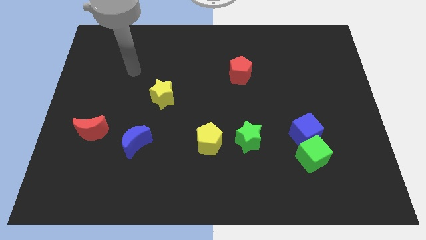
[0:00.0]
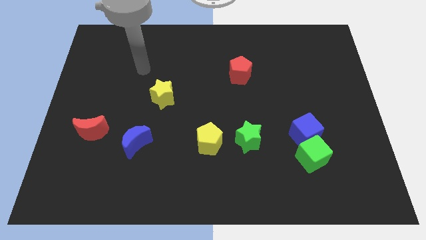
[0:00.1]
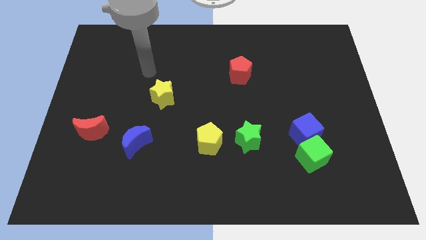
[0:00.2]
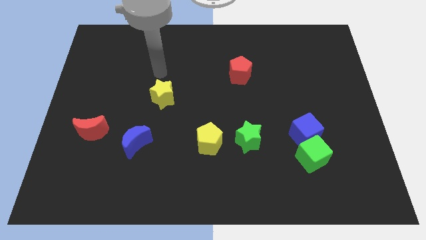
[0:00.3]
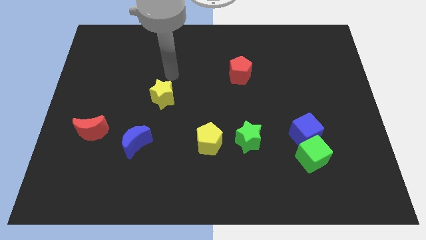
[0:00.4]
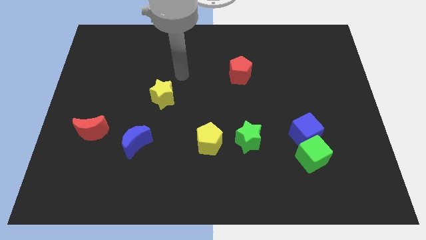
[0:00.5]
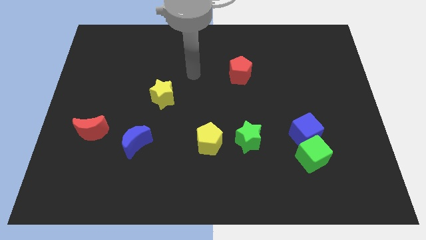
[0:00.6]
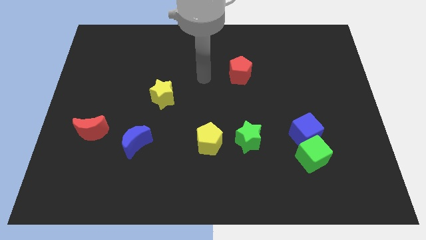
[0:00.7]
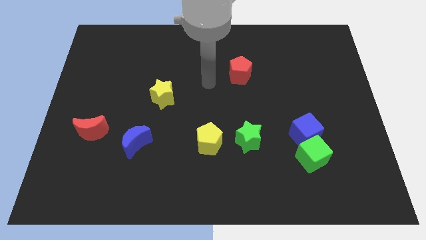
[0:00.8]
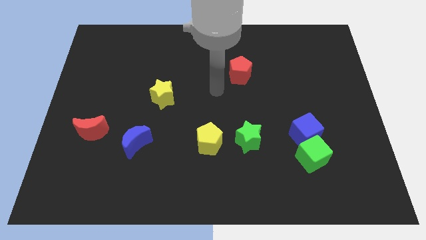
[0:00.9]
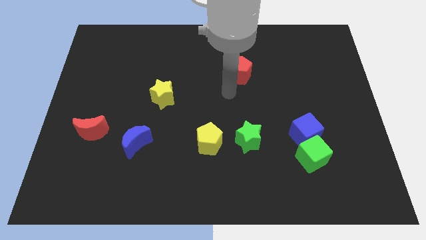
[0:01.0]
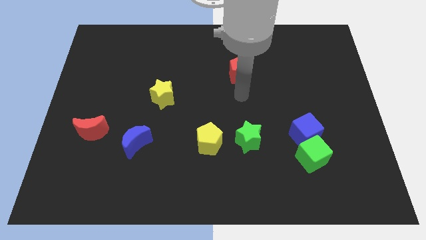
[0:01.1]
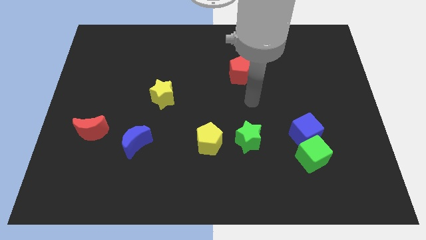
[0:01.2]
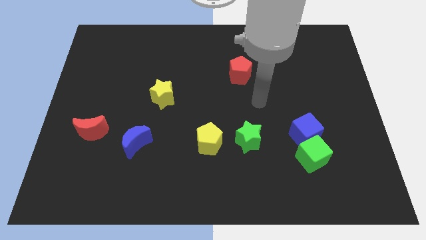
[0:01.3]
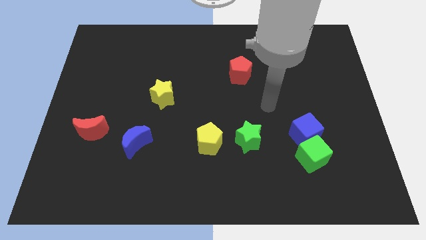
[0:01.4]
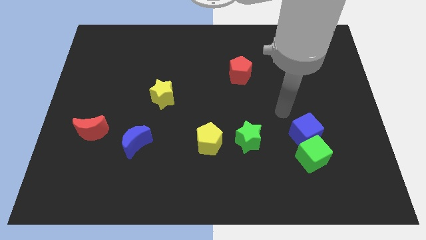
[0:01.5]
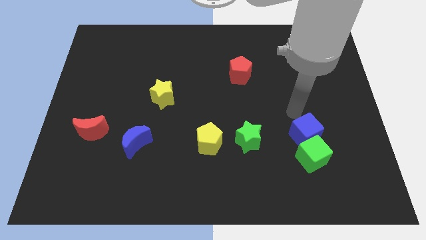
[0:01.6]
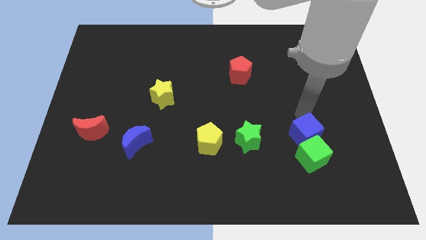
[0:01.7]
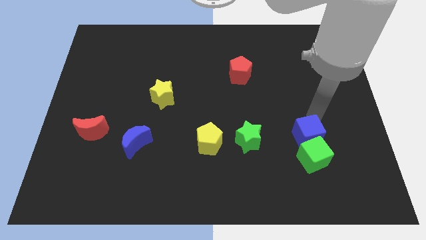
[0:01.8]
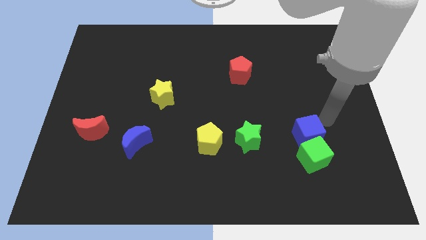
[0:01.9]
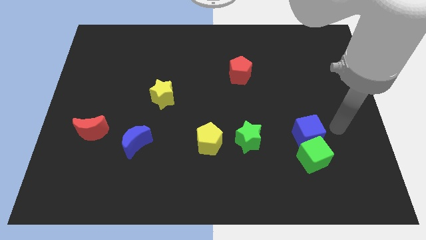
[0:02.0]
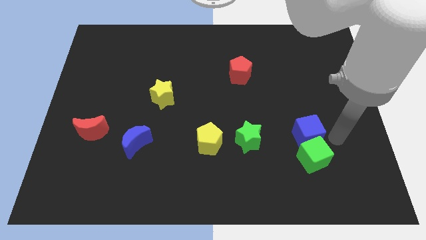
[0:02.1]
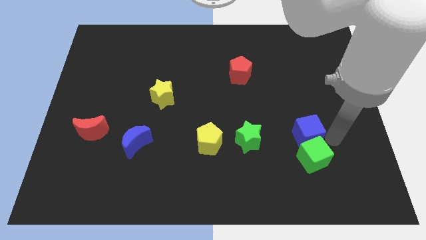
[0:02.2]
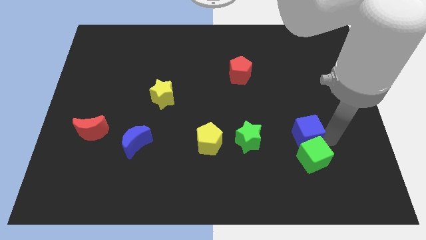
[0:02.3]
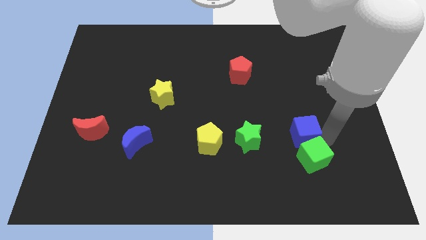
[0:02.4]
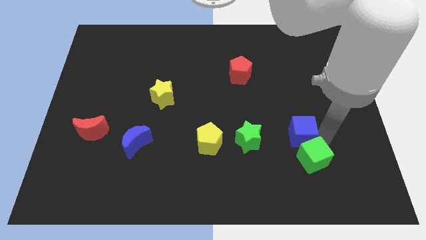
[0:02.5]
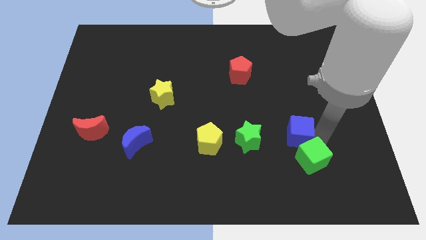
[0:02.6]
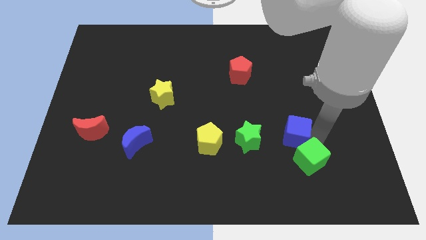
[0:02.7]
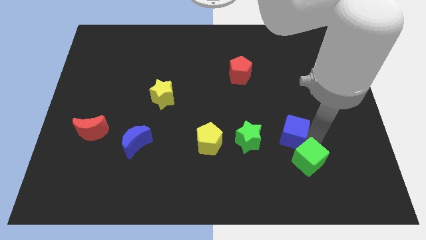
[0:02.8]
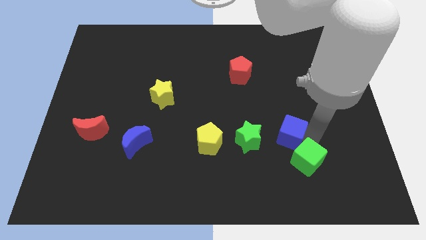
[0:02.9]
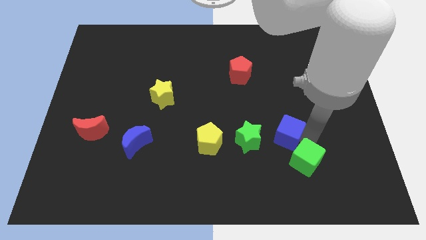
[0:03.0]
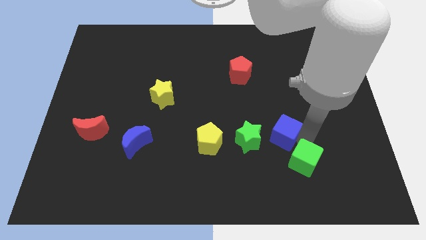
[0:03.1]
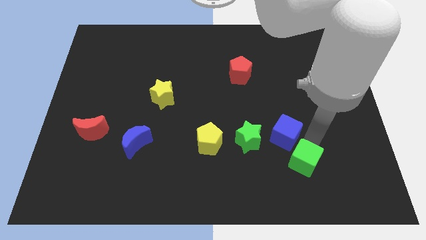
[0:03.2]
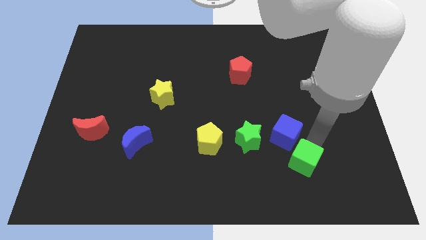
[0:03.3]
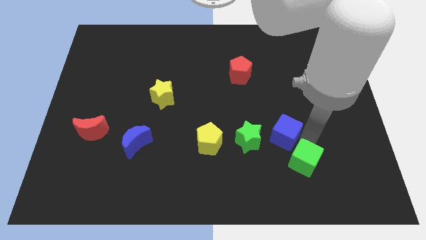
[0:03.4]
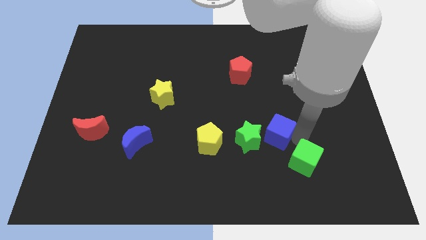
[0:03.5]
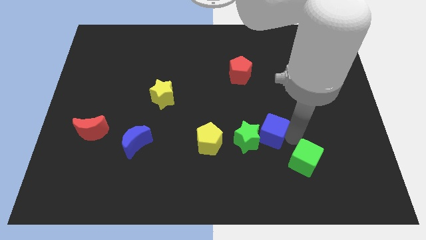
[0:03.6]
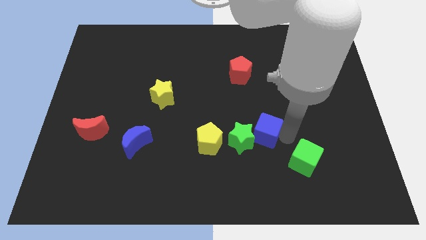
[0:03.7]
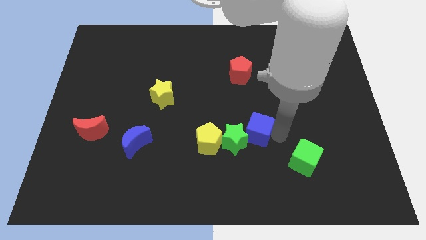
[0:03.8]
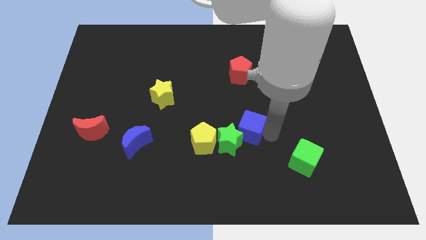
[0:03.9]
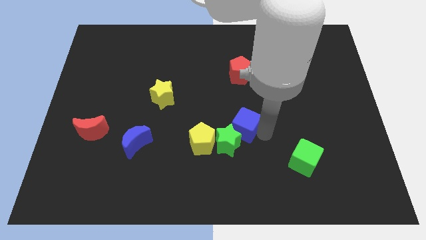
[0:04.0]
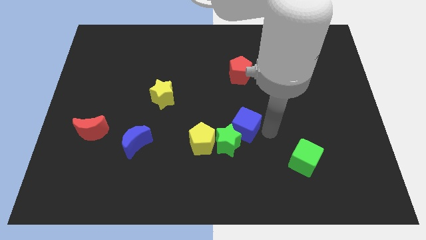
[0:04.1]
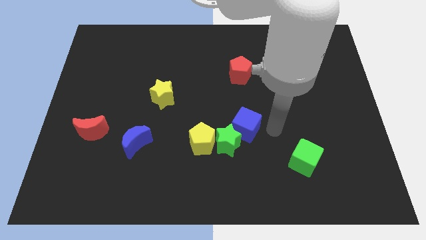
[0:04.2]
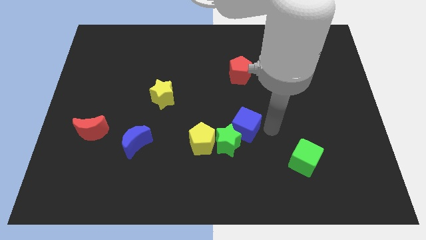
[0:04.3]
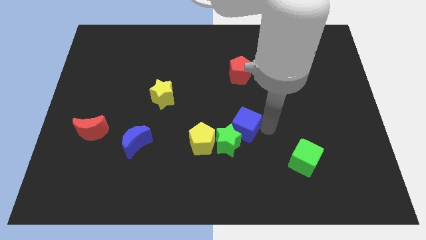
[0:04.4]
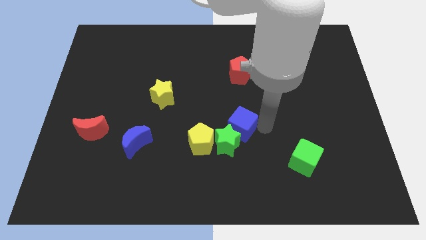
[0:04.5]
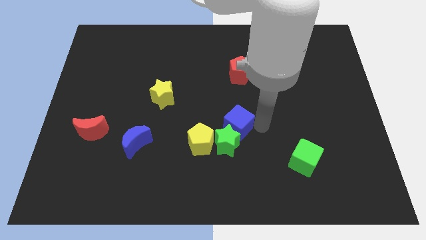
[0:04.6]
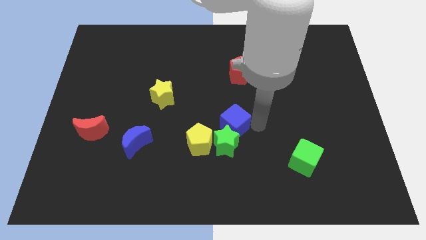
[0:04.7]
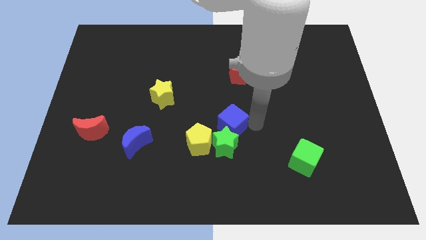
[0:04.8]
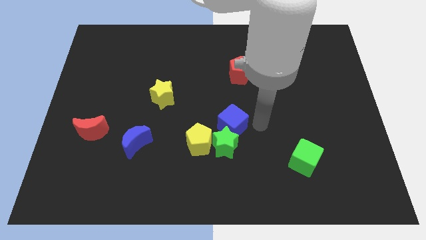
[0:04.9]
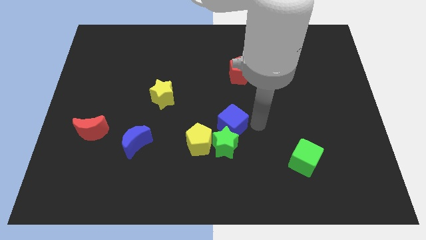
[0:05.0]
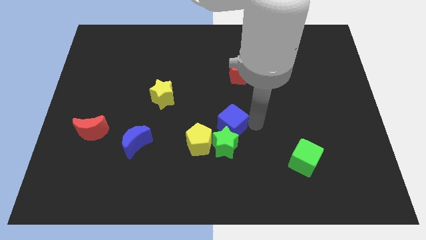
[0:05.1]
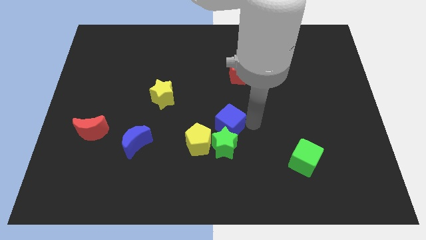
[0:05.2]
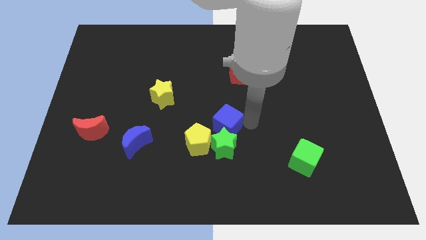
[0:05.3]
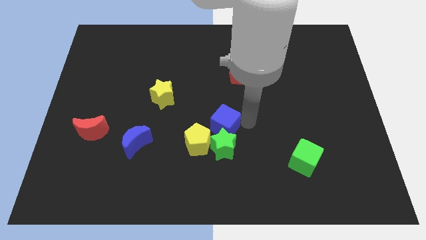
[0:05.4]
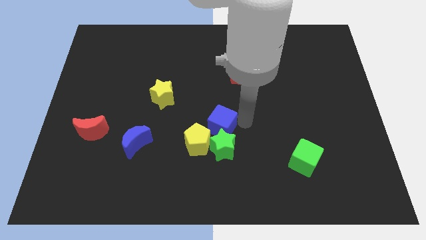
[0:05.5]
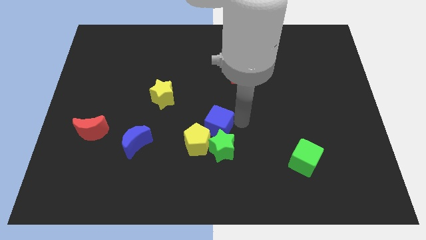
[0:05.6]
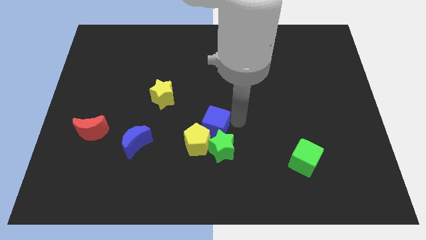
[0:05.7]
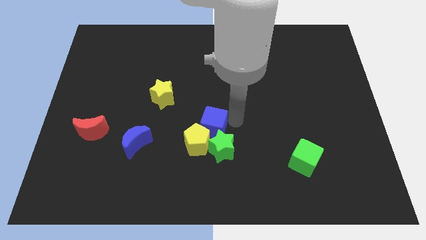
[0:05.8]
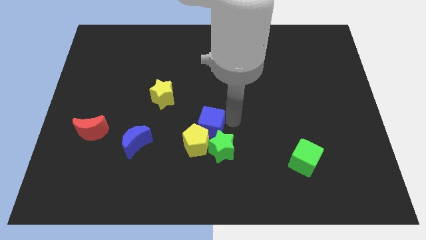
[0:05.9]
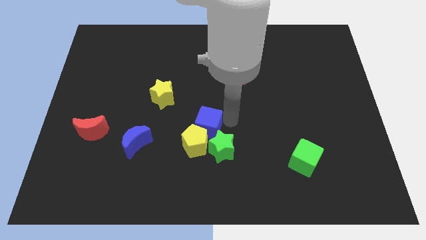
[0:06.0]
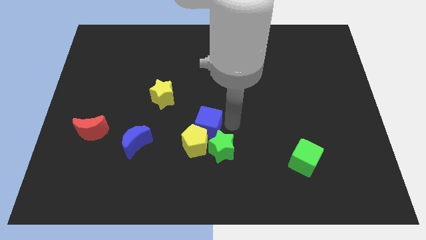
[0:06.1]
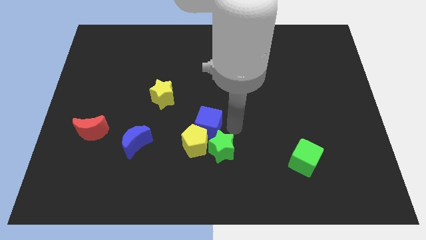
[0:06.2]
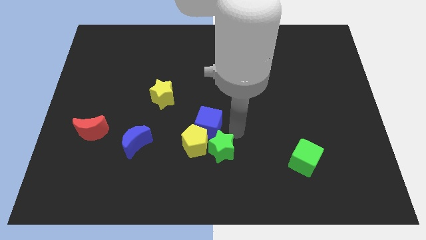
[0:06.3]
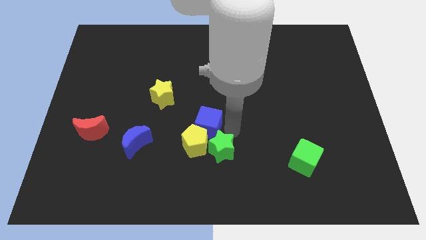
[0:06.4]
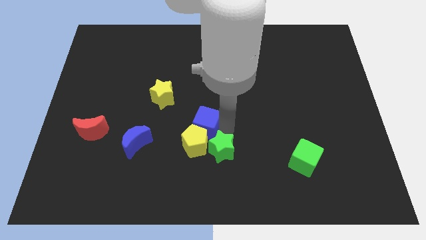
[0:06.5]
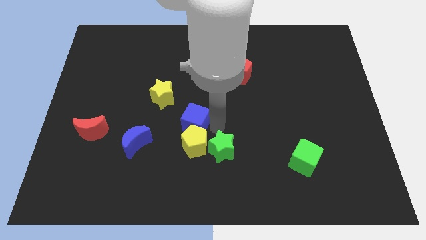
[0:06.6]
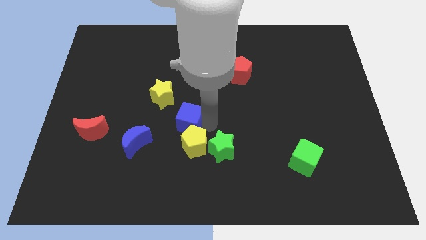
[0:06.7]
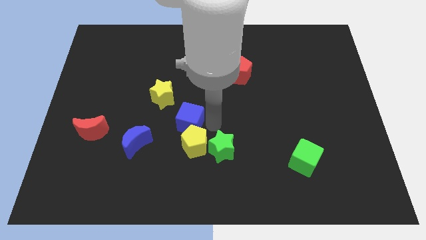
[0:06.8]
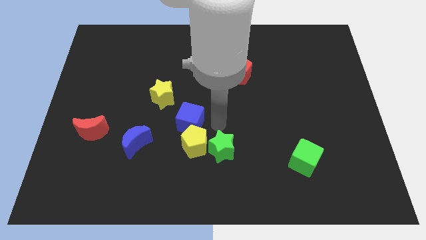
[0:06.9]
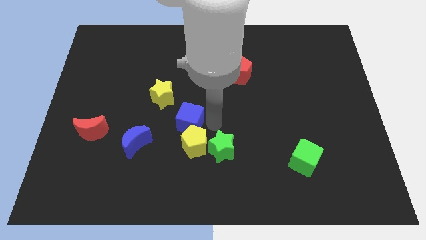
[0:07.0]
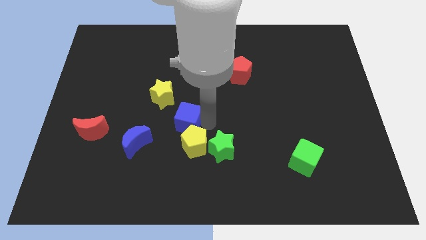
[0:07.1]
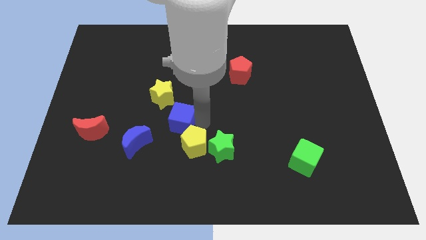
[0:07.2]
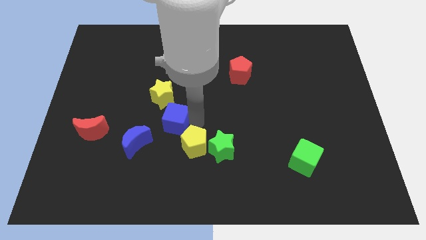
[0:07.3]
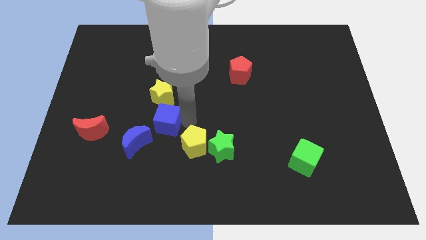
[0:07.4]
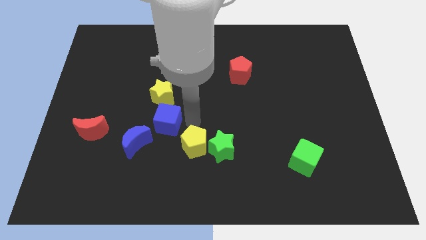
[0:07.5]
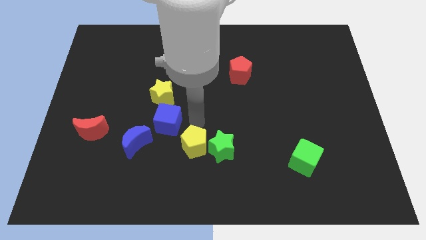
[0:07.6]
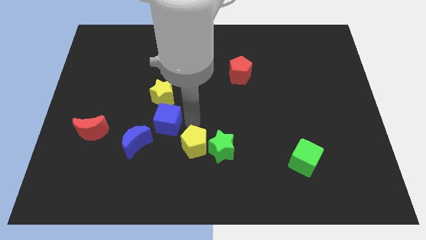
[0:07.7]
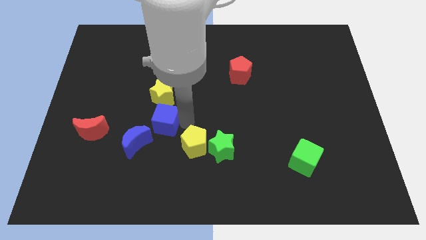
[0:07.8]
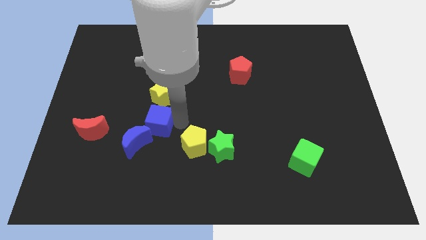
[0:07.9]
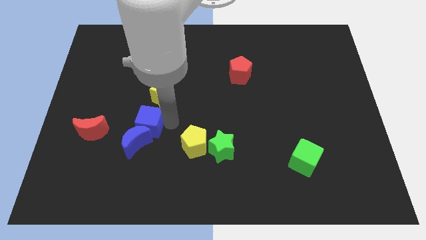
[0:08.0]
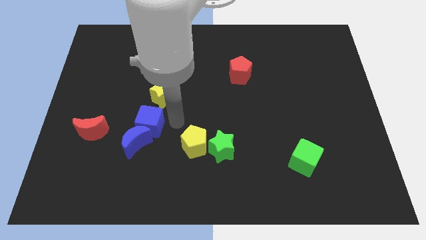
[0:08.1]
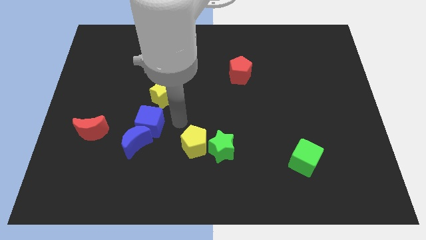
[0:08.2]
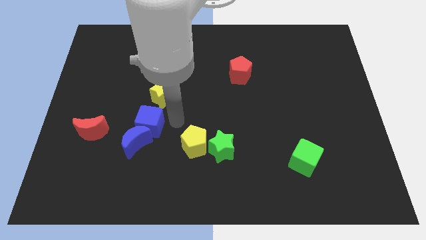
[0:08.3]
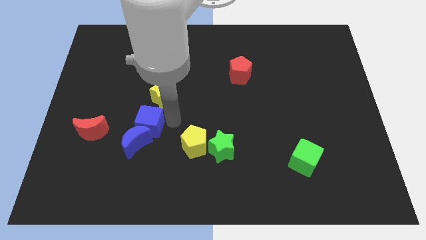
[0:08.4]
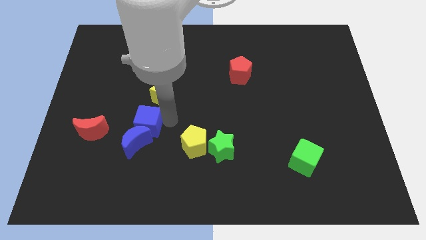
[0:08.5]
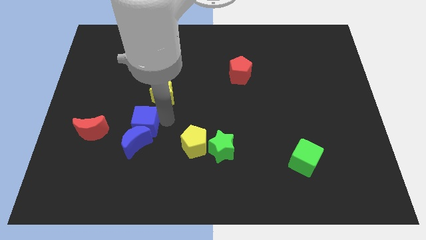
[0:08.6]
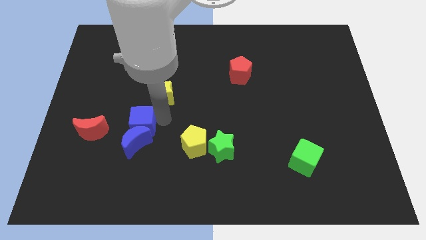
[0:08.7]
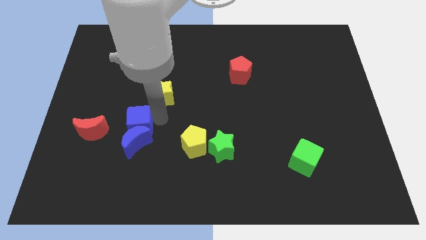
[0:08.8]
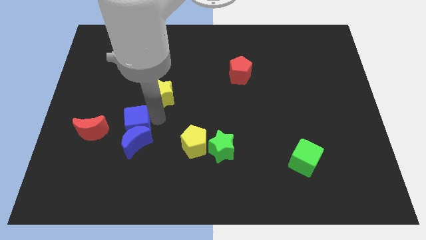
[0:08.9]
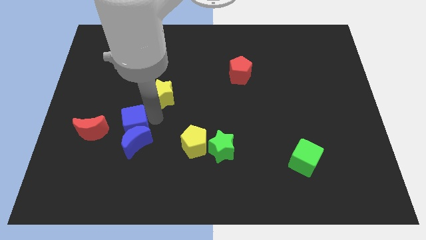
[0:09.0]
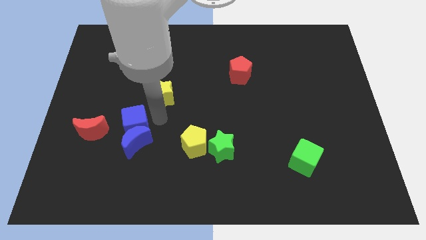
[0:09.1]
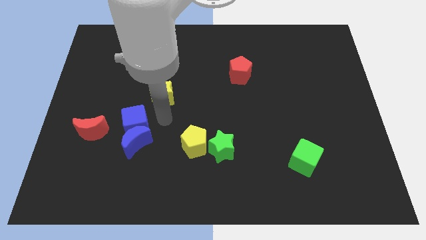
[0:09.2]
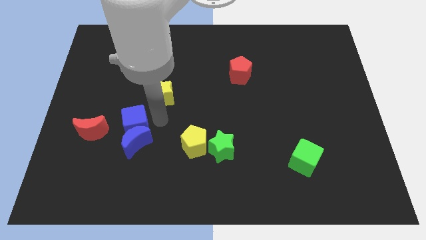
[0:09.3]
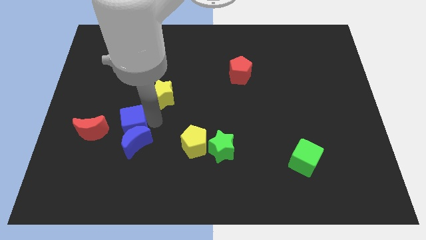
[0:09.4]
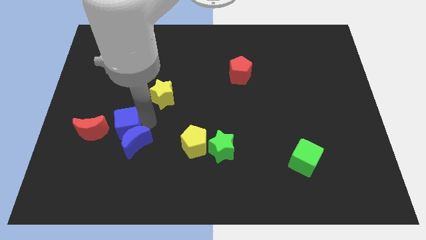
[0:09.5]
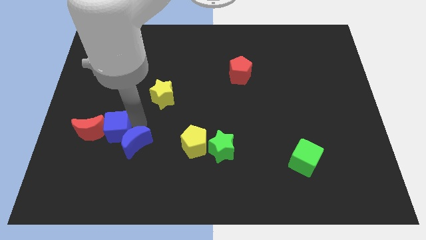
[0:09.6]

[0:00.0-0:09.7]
push the blue cube towards the red moon
